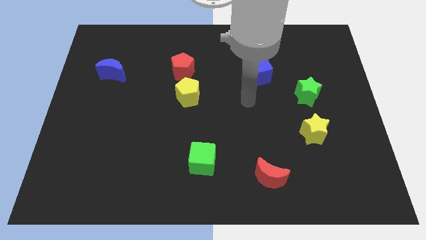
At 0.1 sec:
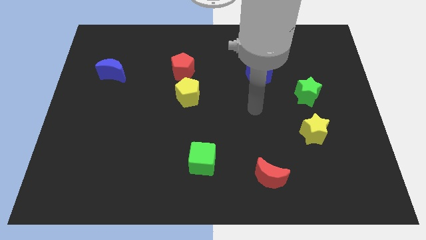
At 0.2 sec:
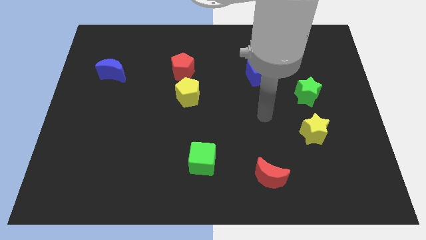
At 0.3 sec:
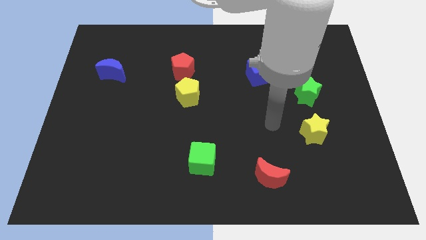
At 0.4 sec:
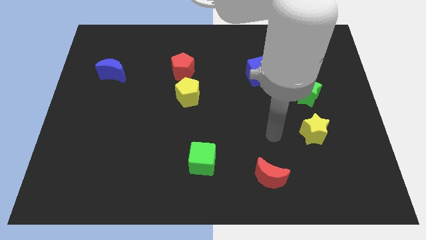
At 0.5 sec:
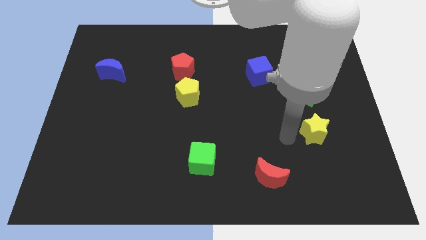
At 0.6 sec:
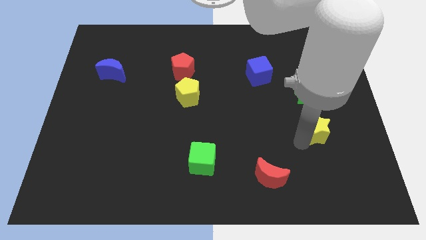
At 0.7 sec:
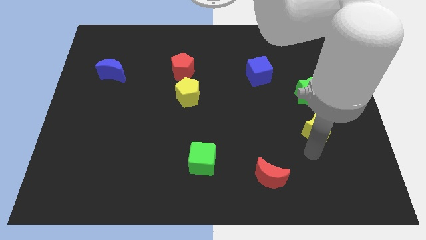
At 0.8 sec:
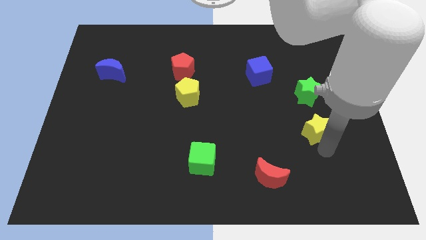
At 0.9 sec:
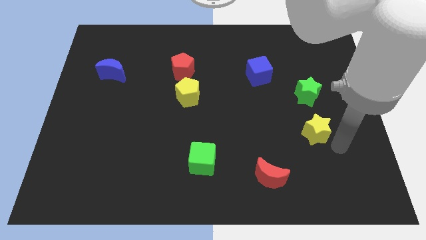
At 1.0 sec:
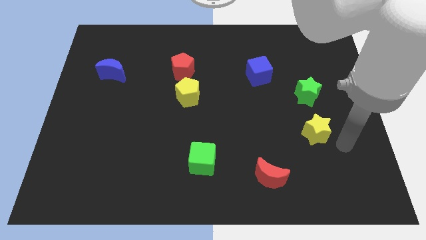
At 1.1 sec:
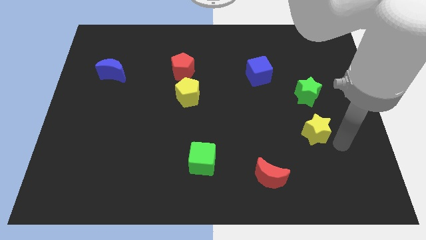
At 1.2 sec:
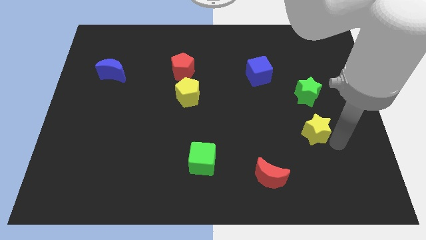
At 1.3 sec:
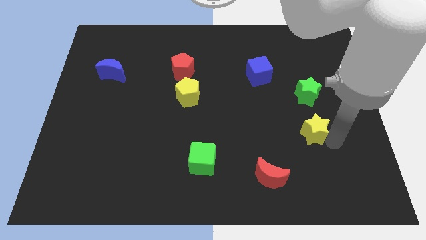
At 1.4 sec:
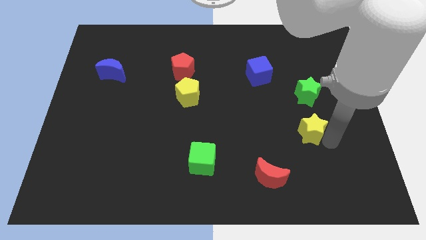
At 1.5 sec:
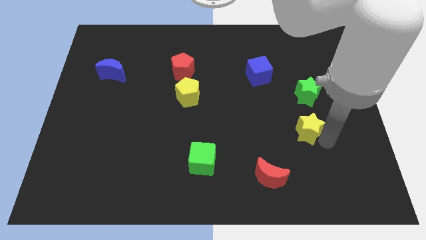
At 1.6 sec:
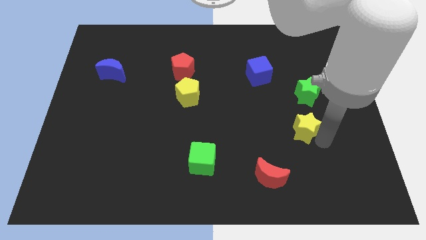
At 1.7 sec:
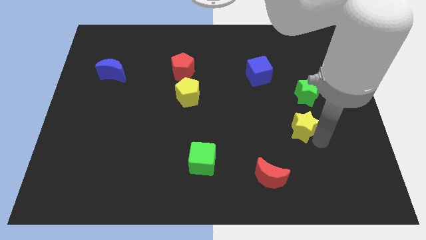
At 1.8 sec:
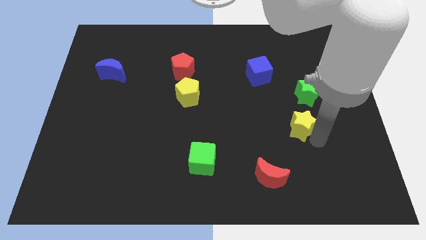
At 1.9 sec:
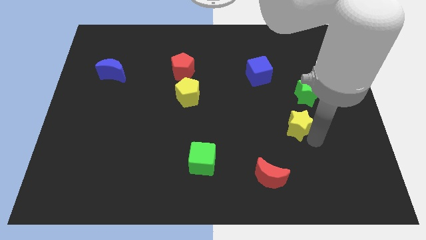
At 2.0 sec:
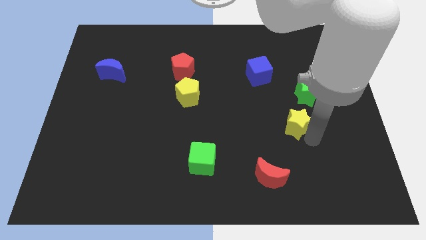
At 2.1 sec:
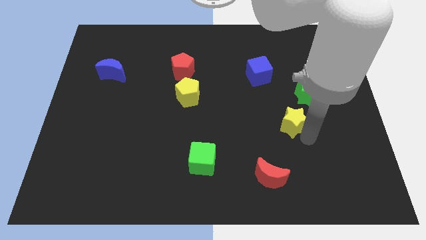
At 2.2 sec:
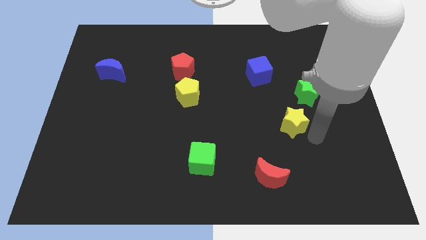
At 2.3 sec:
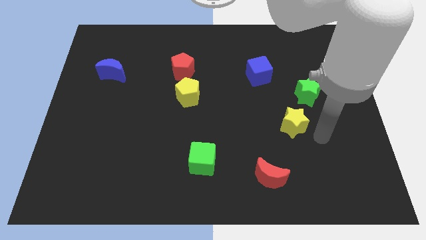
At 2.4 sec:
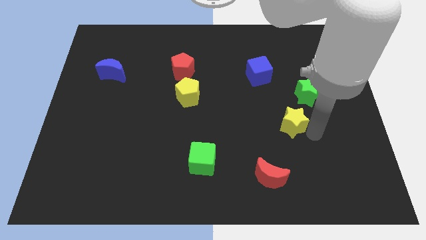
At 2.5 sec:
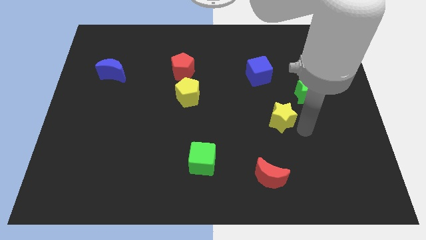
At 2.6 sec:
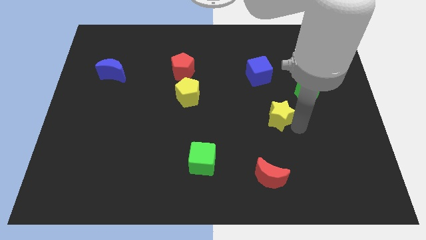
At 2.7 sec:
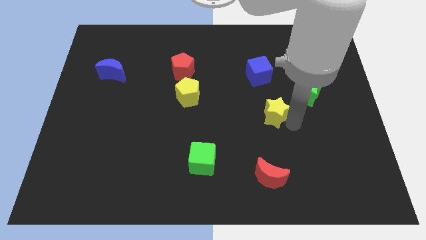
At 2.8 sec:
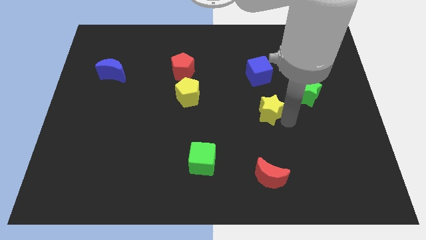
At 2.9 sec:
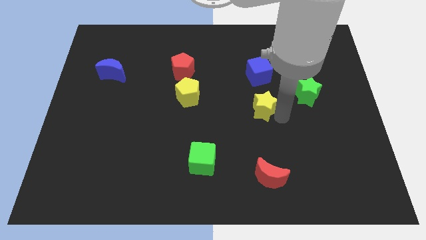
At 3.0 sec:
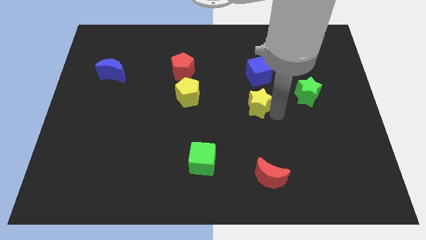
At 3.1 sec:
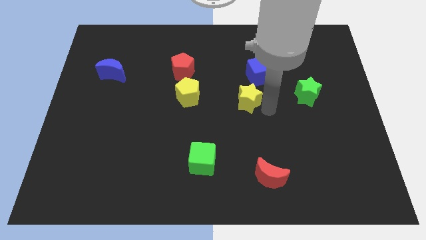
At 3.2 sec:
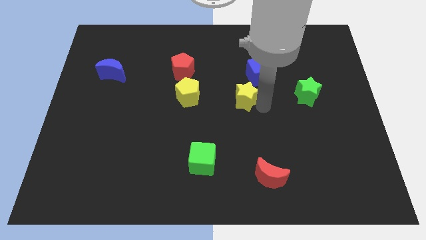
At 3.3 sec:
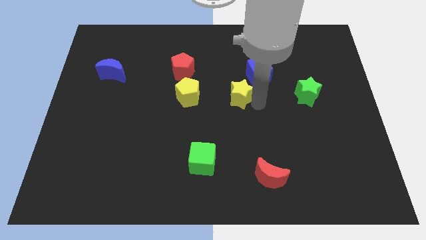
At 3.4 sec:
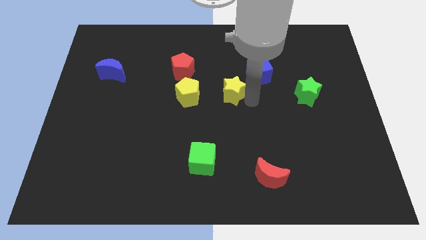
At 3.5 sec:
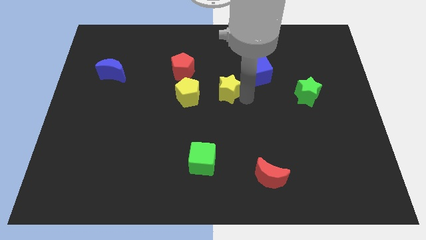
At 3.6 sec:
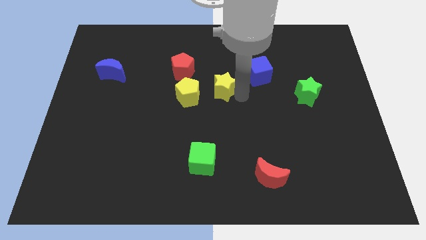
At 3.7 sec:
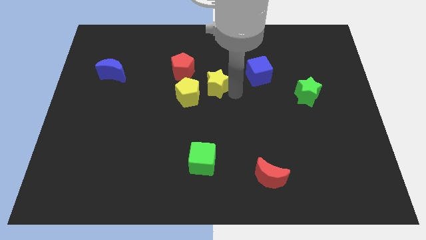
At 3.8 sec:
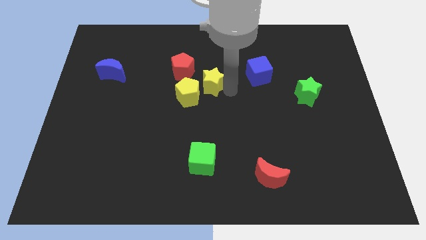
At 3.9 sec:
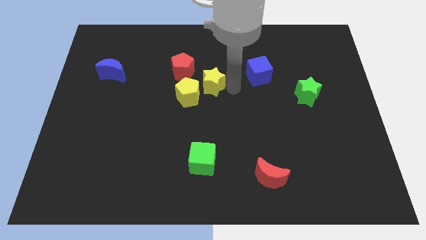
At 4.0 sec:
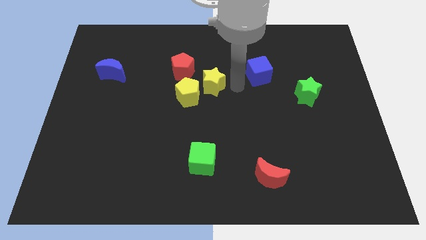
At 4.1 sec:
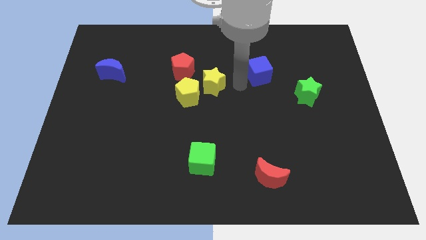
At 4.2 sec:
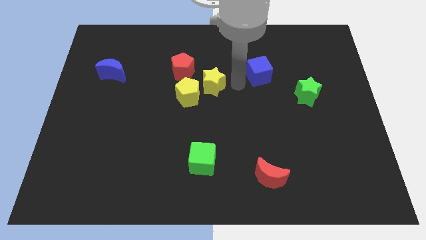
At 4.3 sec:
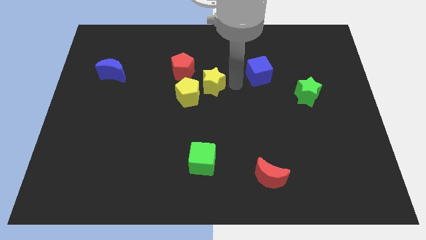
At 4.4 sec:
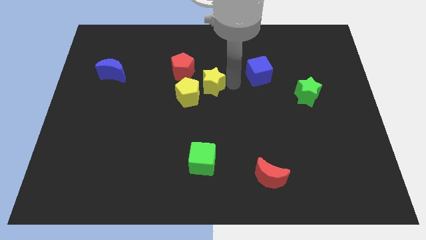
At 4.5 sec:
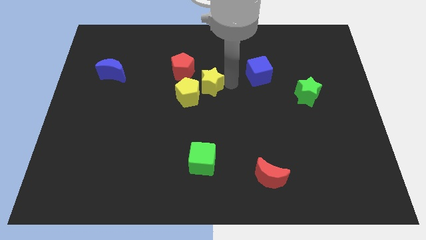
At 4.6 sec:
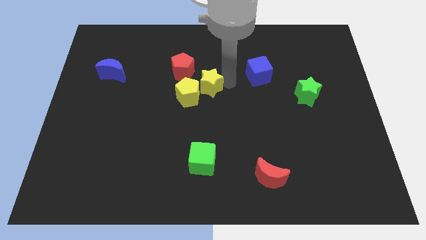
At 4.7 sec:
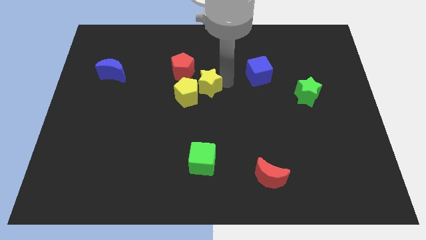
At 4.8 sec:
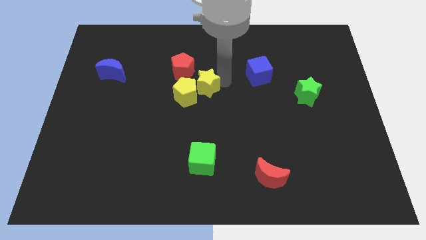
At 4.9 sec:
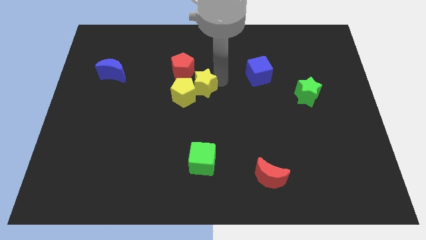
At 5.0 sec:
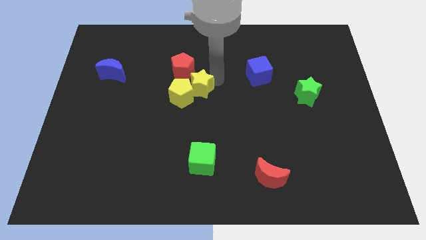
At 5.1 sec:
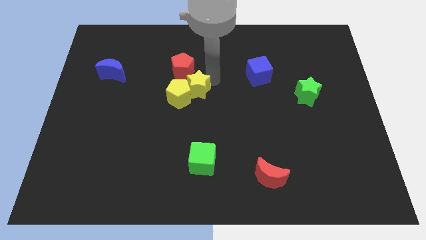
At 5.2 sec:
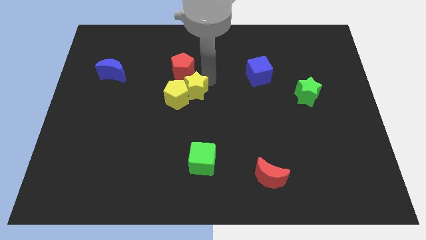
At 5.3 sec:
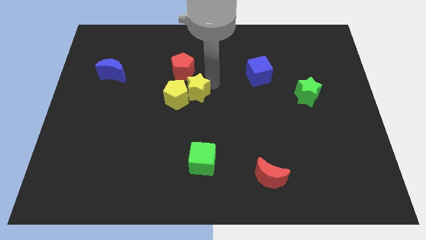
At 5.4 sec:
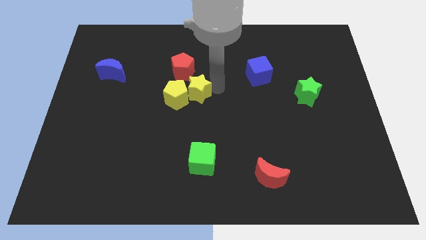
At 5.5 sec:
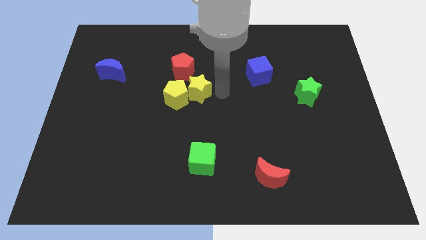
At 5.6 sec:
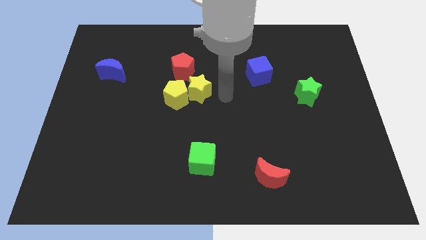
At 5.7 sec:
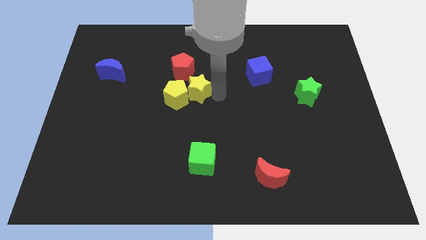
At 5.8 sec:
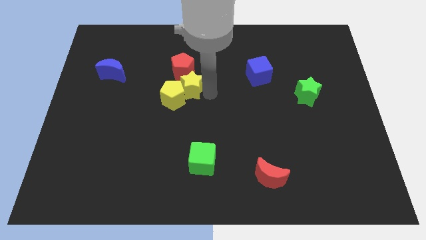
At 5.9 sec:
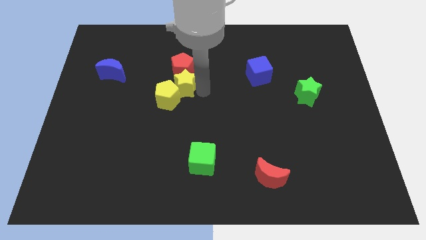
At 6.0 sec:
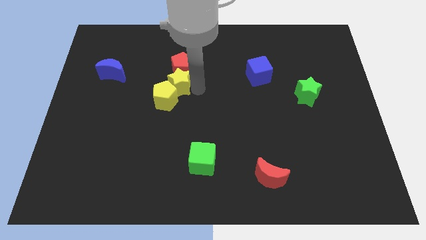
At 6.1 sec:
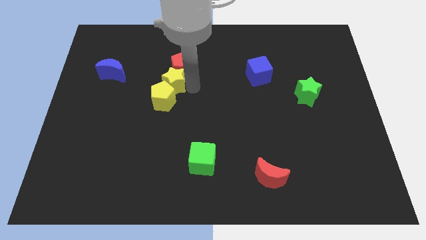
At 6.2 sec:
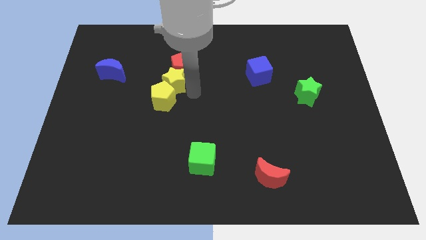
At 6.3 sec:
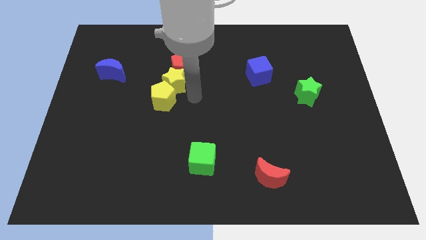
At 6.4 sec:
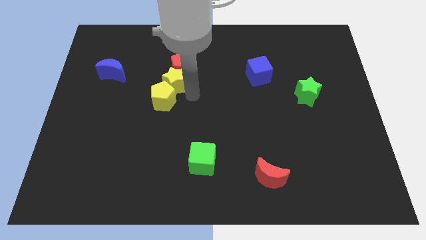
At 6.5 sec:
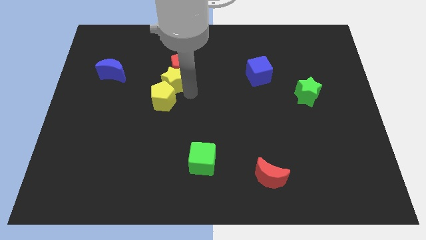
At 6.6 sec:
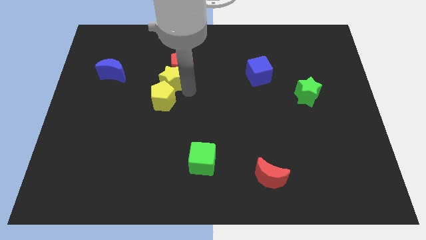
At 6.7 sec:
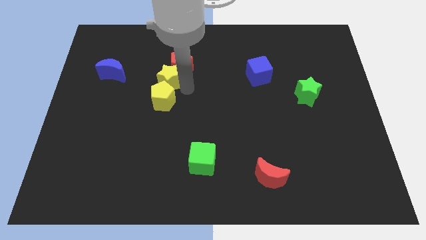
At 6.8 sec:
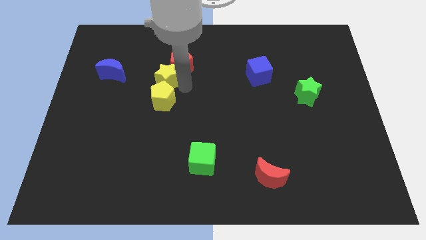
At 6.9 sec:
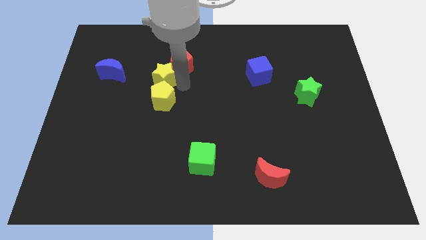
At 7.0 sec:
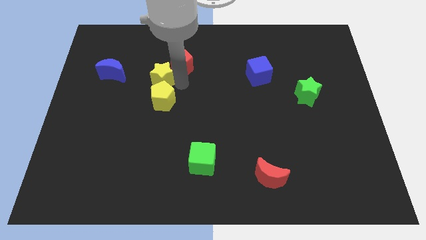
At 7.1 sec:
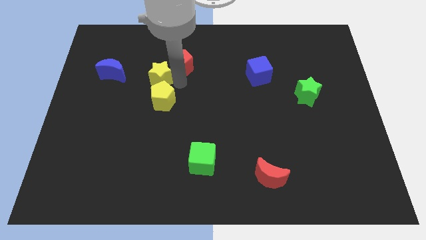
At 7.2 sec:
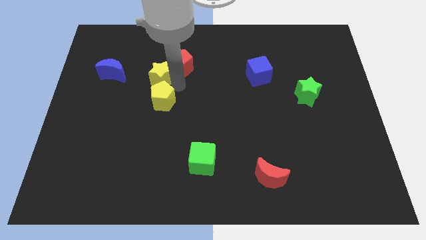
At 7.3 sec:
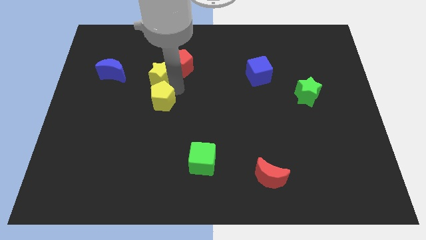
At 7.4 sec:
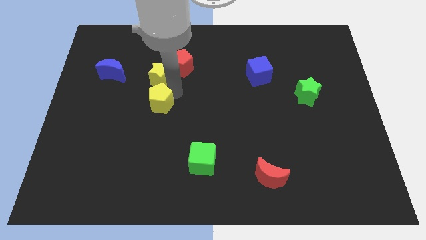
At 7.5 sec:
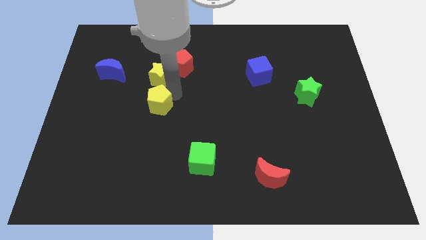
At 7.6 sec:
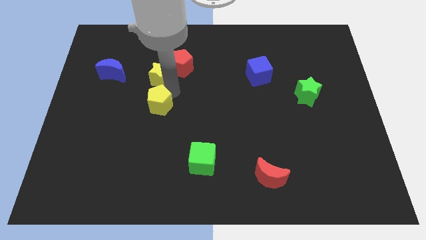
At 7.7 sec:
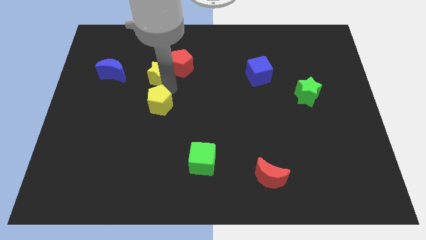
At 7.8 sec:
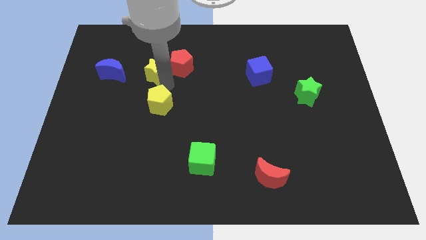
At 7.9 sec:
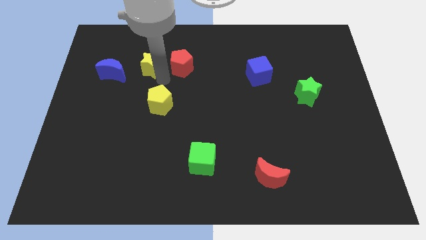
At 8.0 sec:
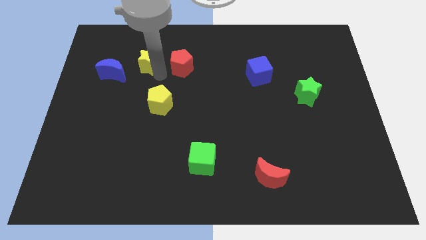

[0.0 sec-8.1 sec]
put the yellow star to the top right side of the blue moon
